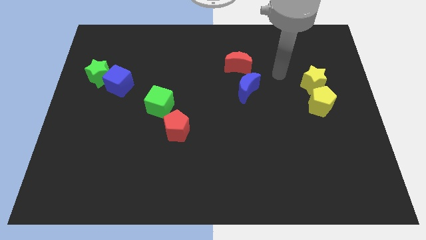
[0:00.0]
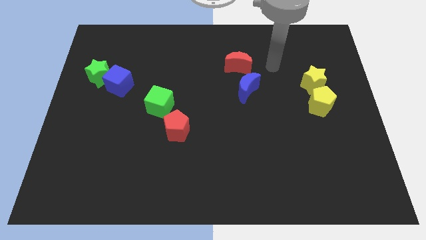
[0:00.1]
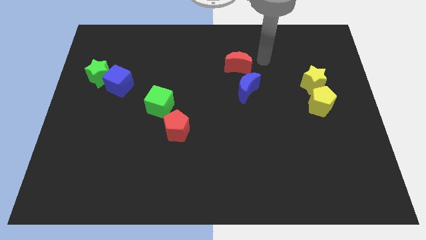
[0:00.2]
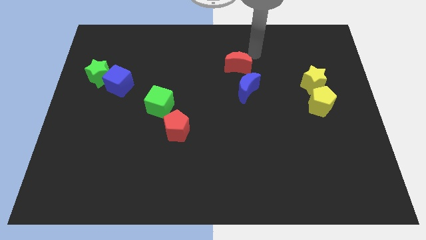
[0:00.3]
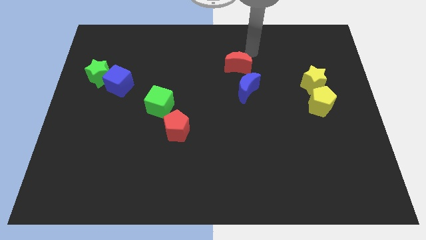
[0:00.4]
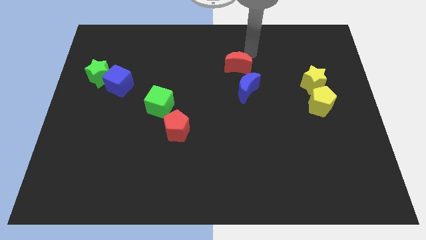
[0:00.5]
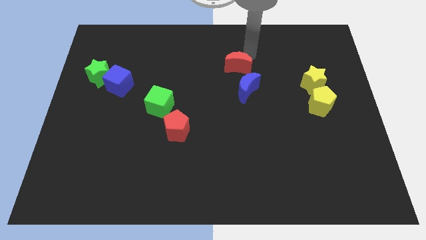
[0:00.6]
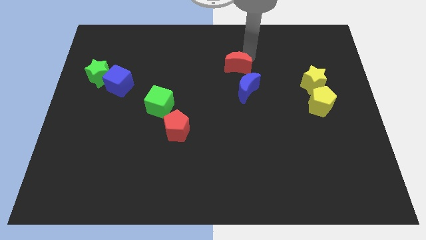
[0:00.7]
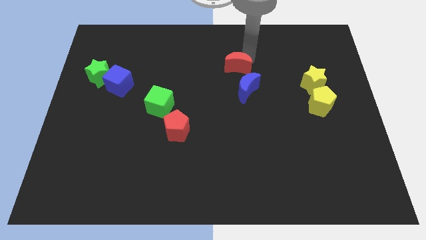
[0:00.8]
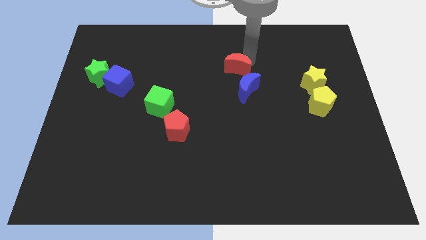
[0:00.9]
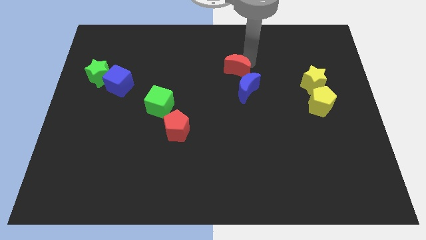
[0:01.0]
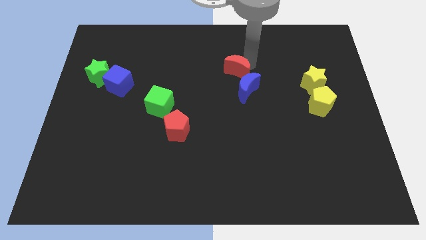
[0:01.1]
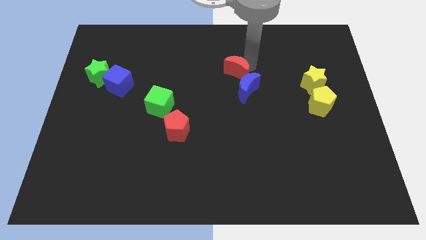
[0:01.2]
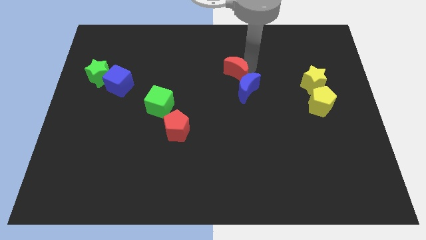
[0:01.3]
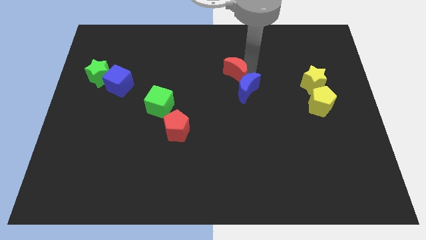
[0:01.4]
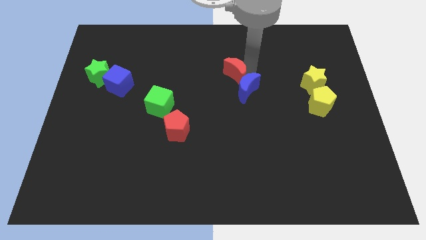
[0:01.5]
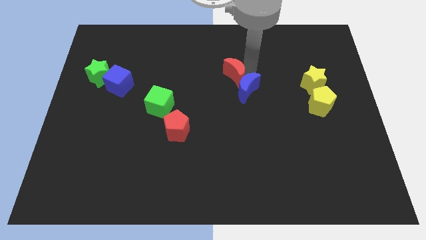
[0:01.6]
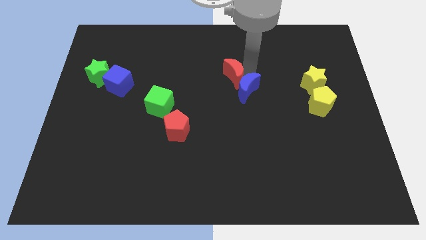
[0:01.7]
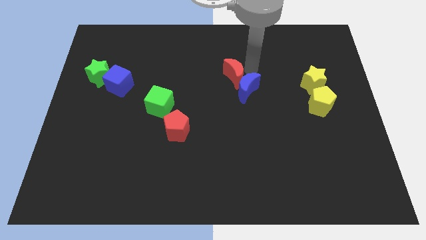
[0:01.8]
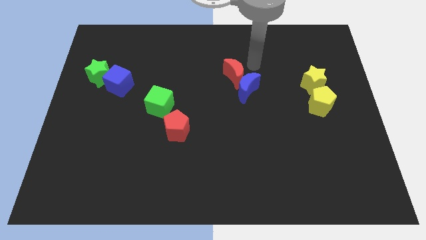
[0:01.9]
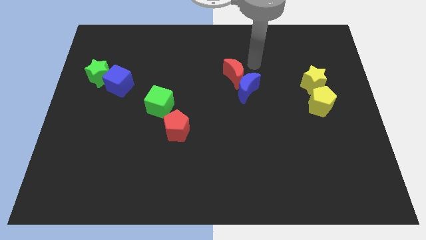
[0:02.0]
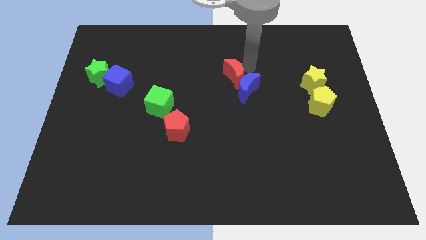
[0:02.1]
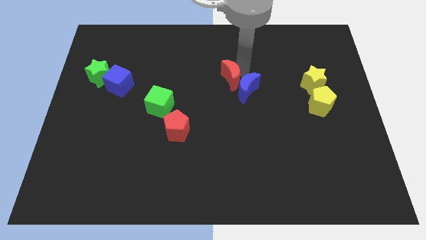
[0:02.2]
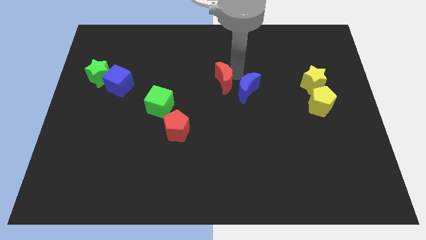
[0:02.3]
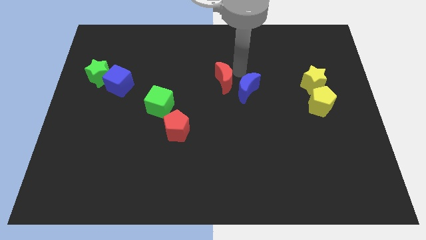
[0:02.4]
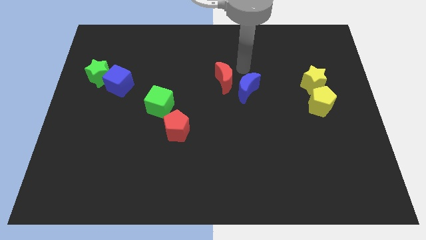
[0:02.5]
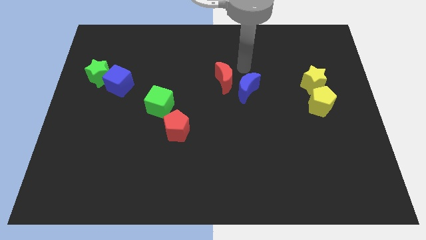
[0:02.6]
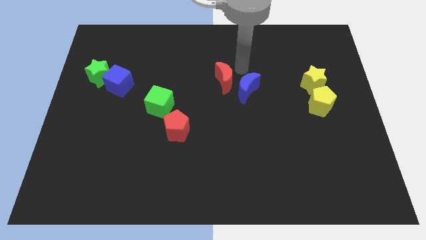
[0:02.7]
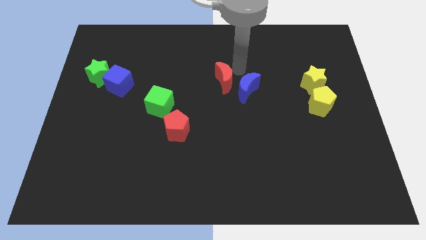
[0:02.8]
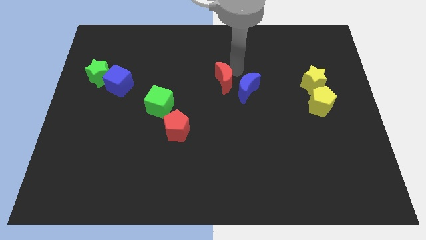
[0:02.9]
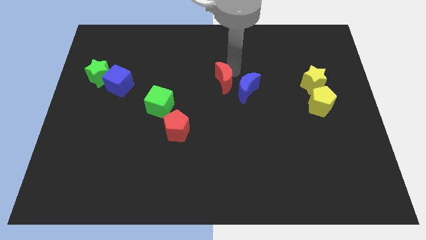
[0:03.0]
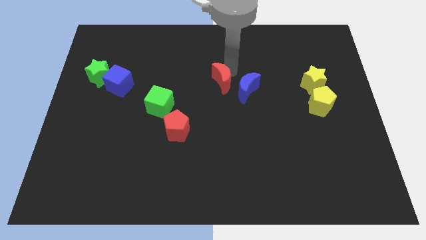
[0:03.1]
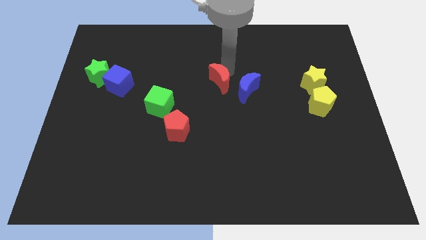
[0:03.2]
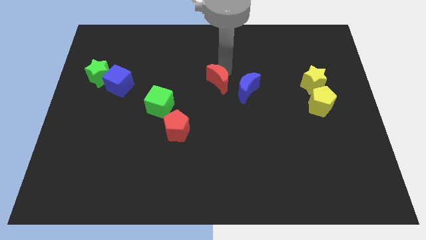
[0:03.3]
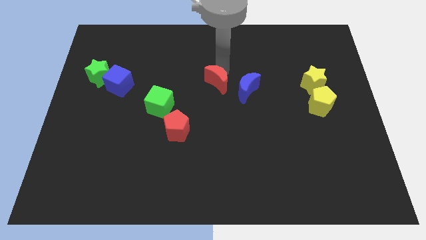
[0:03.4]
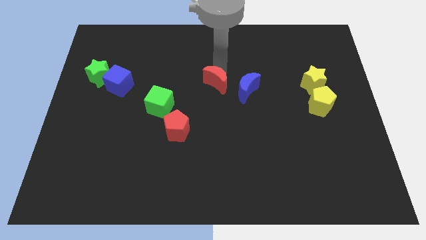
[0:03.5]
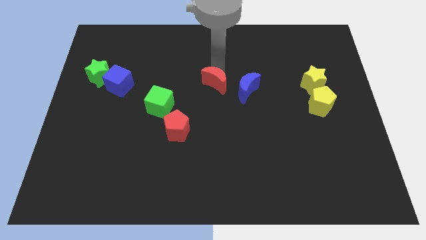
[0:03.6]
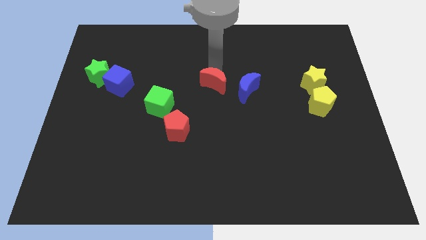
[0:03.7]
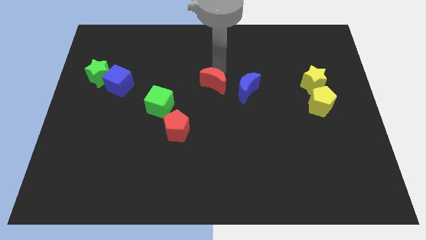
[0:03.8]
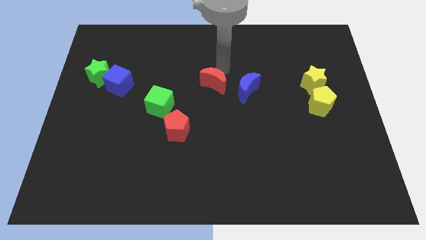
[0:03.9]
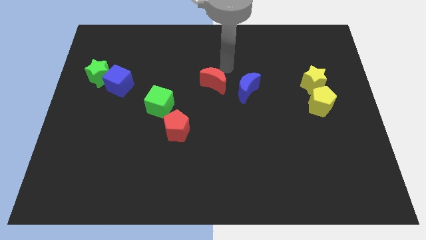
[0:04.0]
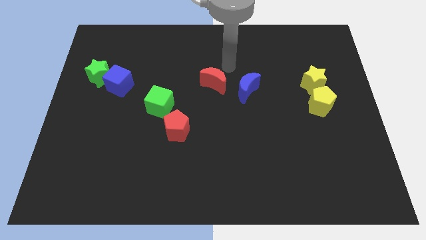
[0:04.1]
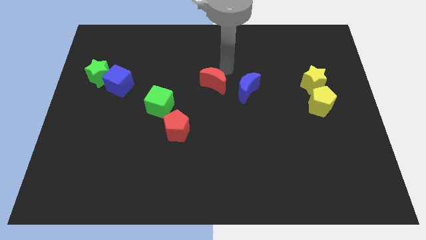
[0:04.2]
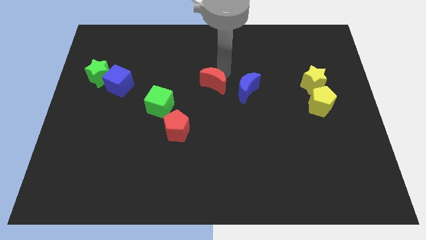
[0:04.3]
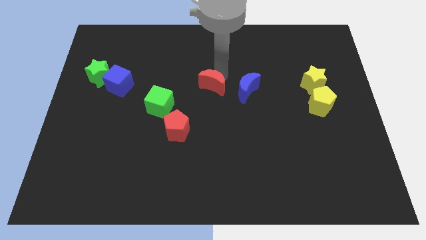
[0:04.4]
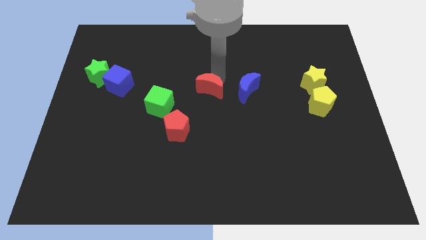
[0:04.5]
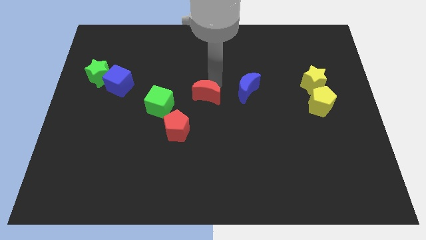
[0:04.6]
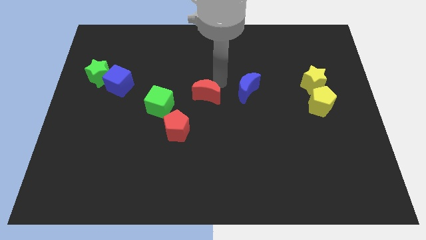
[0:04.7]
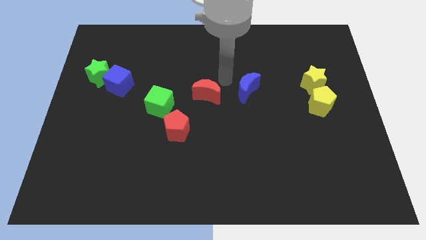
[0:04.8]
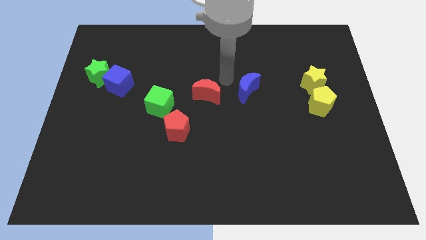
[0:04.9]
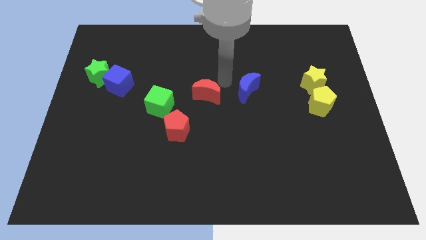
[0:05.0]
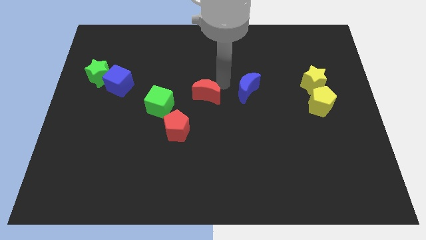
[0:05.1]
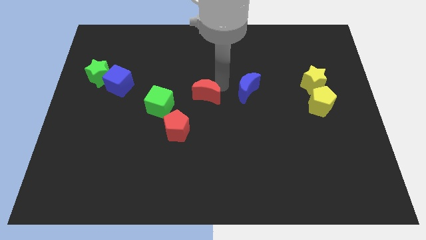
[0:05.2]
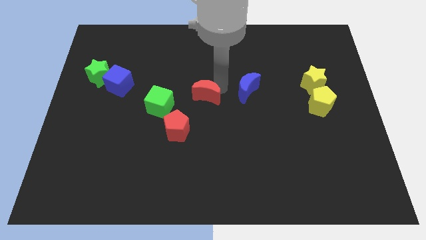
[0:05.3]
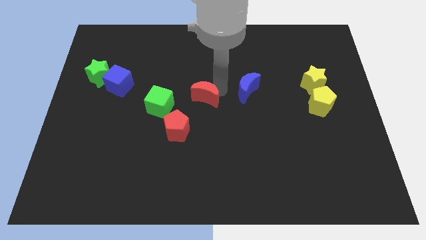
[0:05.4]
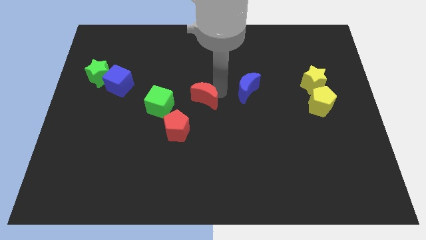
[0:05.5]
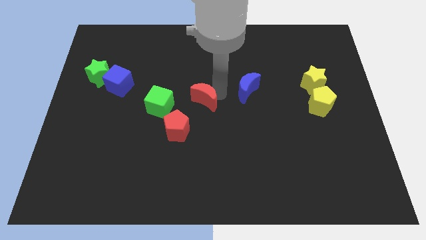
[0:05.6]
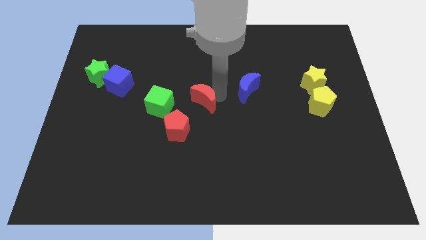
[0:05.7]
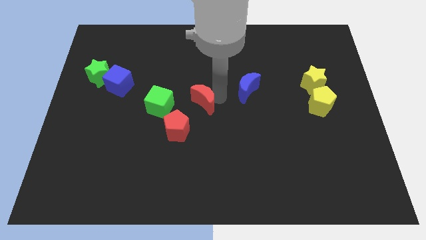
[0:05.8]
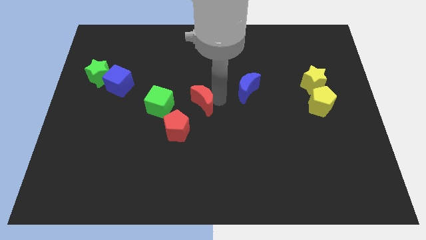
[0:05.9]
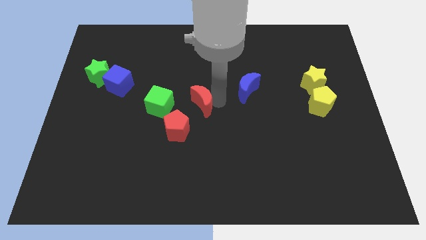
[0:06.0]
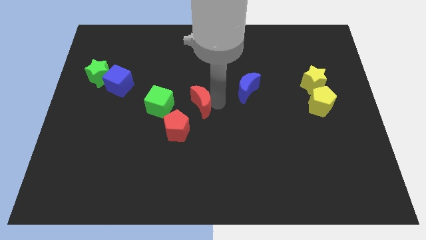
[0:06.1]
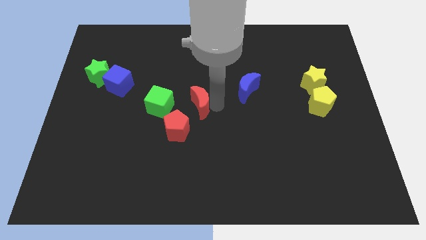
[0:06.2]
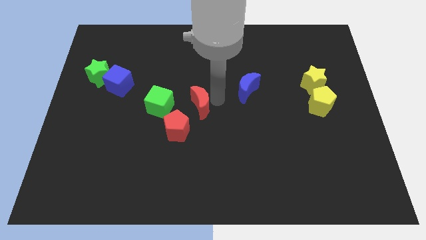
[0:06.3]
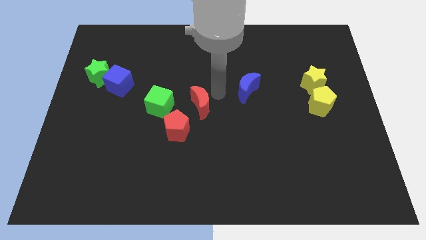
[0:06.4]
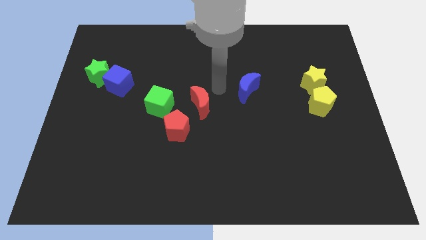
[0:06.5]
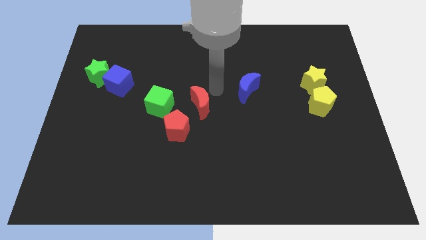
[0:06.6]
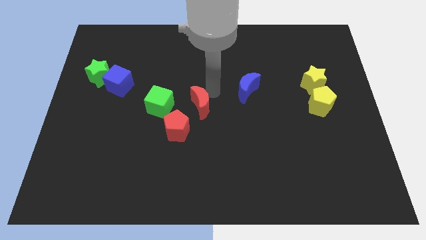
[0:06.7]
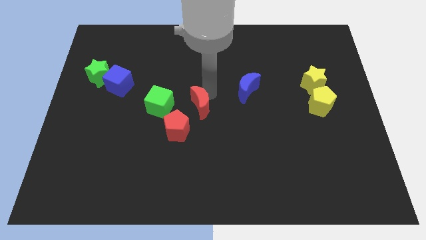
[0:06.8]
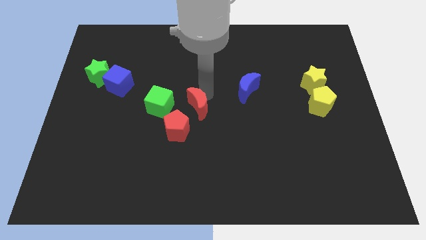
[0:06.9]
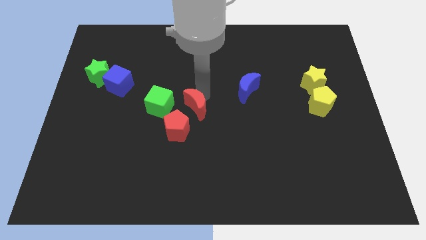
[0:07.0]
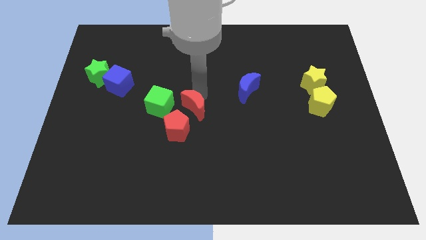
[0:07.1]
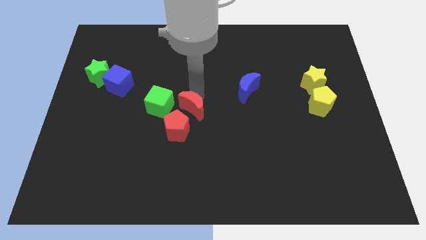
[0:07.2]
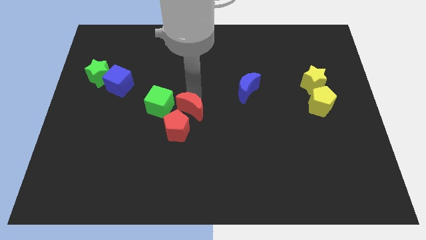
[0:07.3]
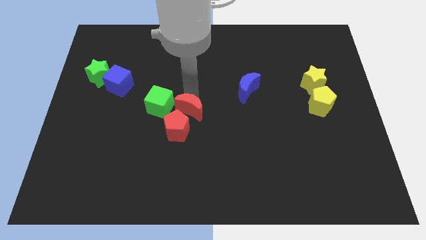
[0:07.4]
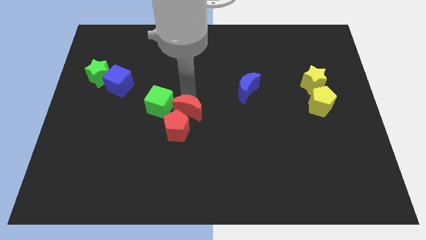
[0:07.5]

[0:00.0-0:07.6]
put the red moon next to the red pentagon
